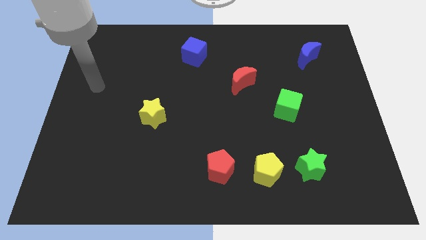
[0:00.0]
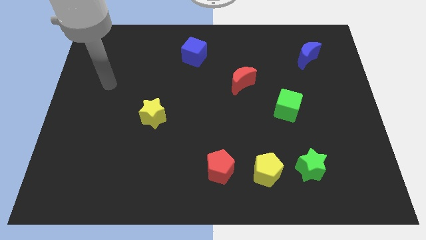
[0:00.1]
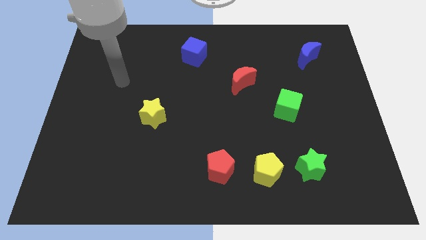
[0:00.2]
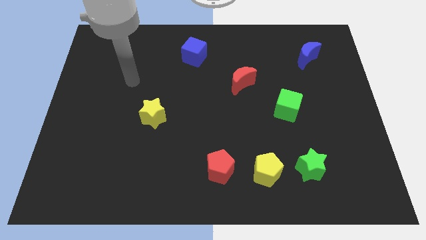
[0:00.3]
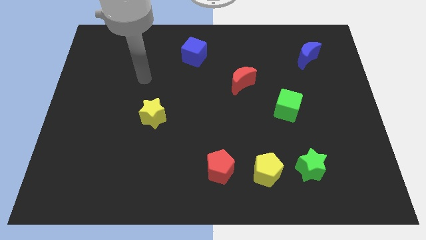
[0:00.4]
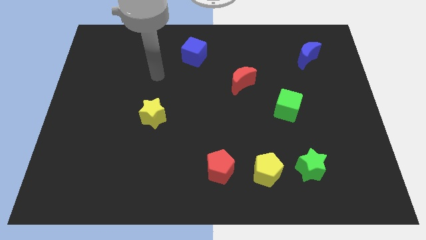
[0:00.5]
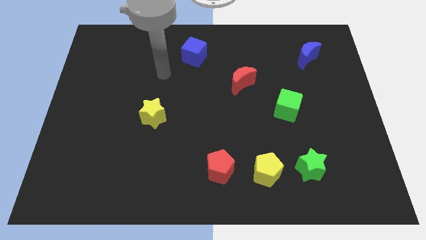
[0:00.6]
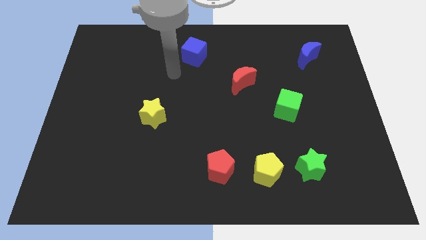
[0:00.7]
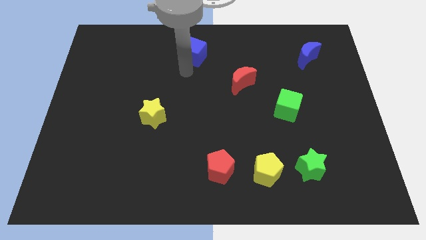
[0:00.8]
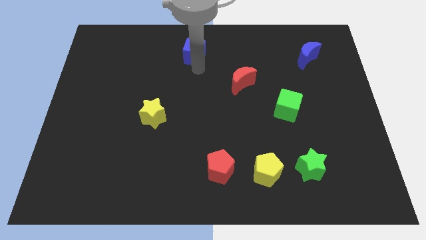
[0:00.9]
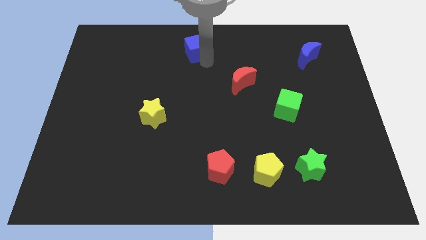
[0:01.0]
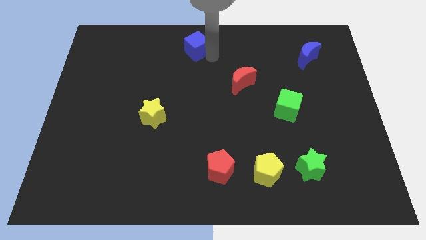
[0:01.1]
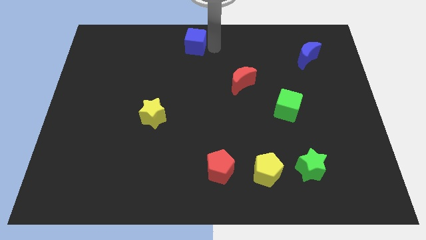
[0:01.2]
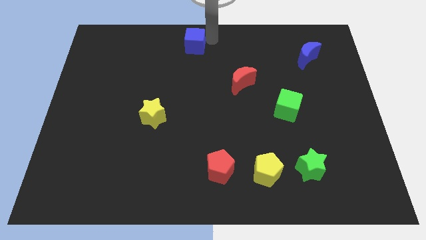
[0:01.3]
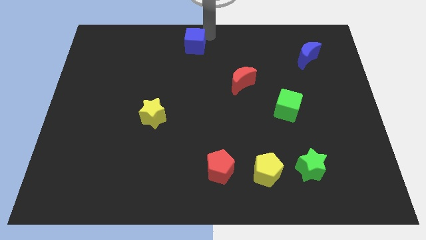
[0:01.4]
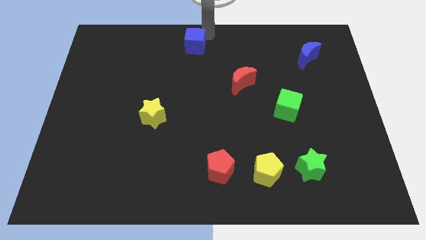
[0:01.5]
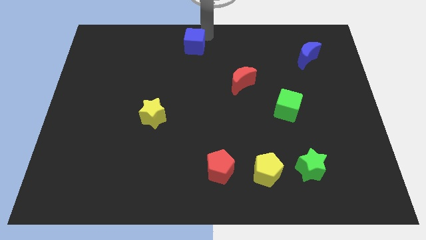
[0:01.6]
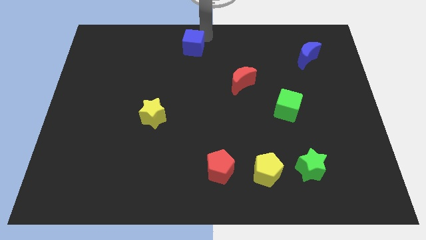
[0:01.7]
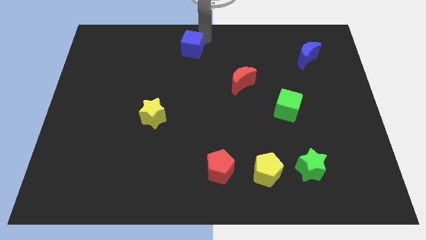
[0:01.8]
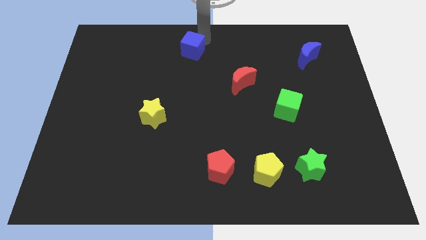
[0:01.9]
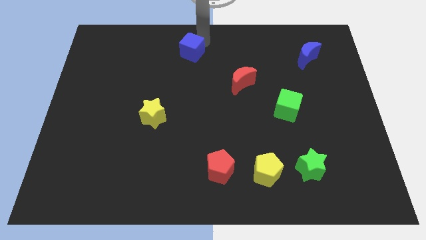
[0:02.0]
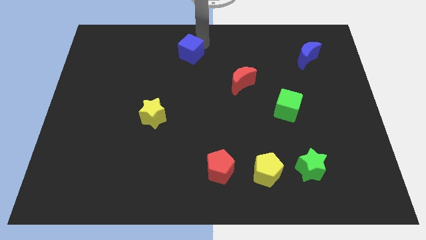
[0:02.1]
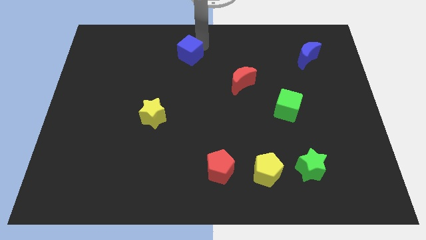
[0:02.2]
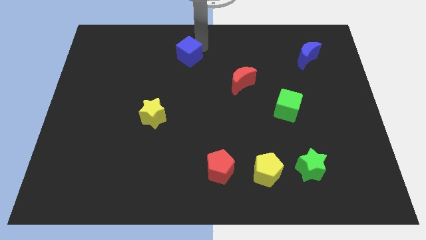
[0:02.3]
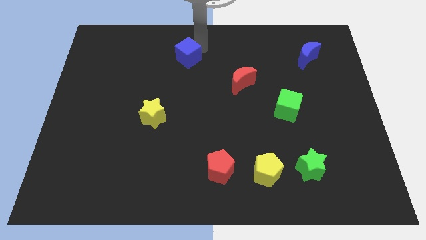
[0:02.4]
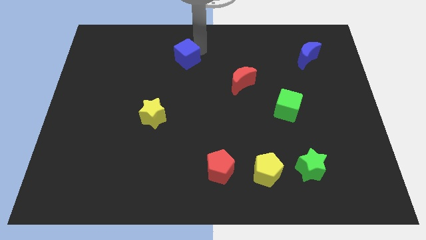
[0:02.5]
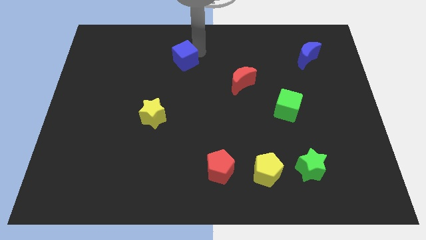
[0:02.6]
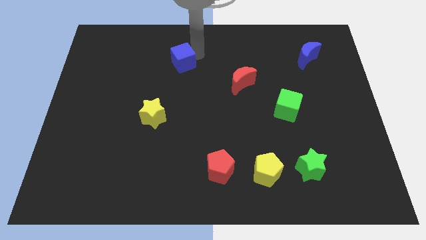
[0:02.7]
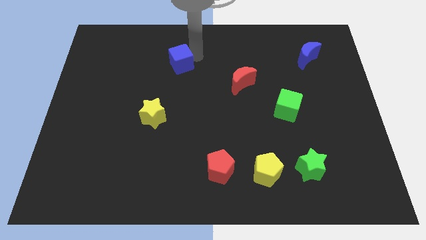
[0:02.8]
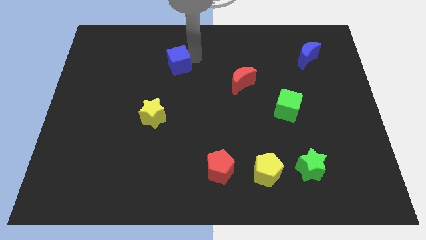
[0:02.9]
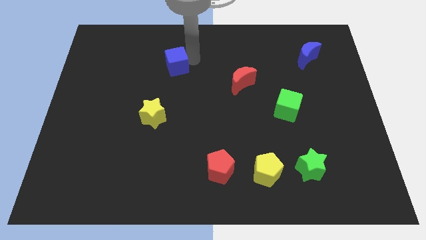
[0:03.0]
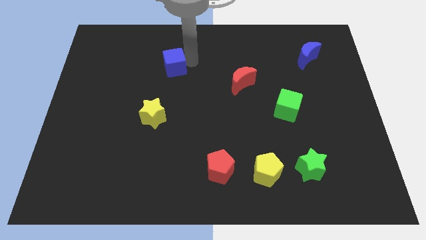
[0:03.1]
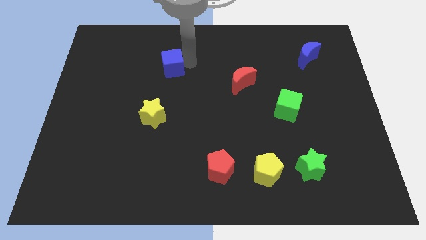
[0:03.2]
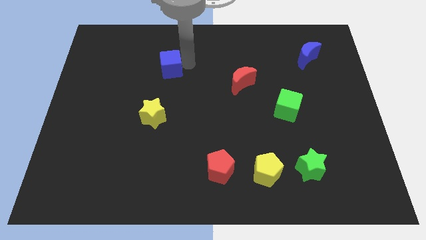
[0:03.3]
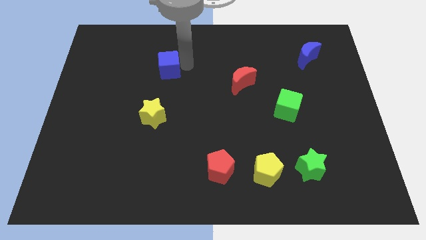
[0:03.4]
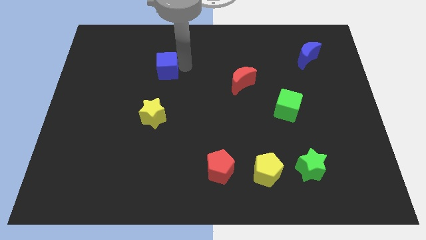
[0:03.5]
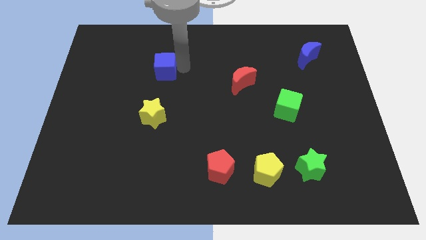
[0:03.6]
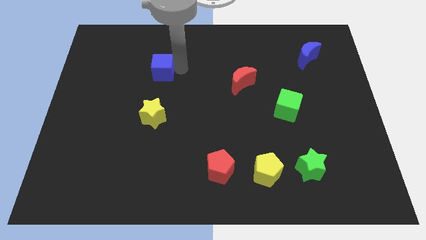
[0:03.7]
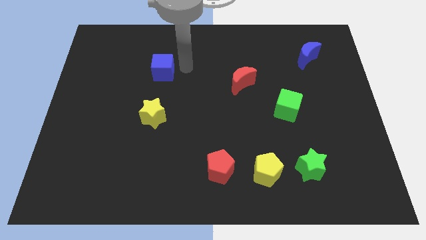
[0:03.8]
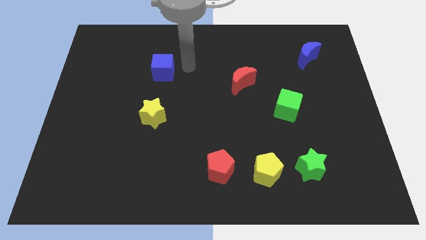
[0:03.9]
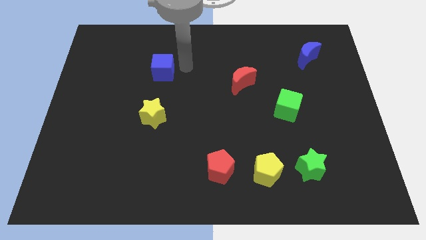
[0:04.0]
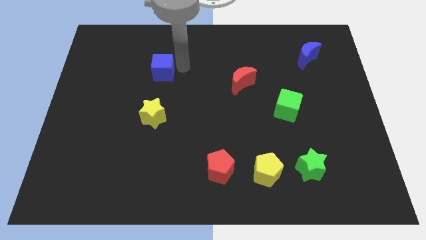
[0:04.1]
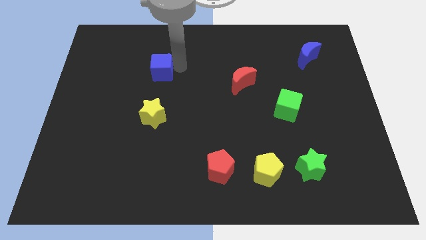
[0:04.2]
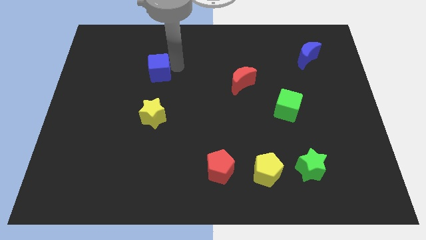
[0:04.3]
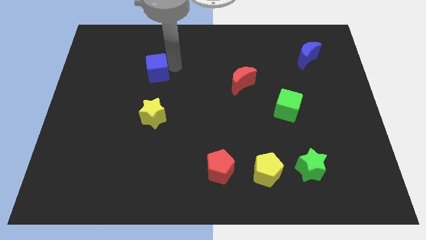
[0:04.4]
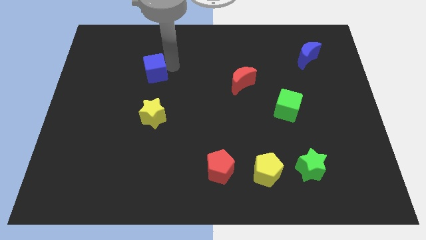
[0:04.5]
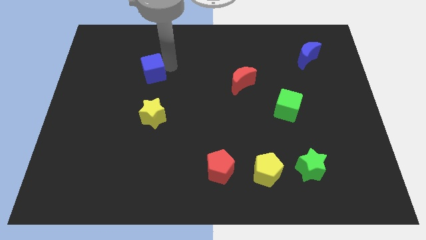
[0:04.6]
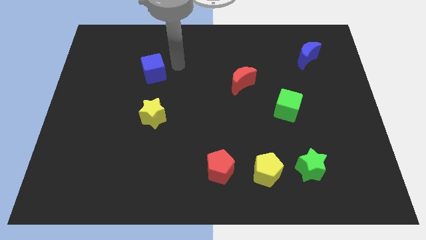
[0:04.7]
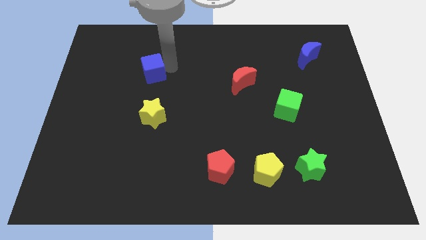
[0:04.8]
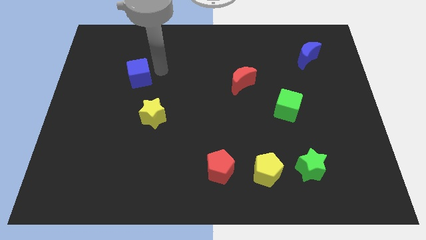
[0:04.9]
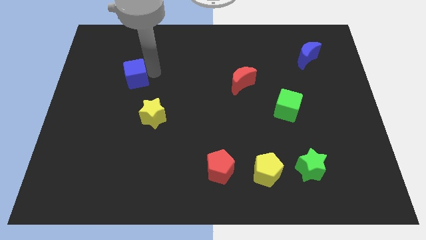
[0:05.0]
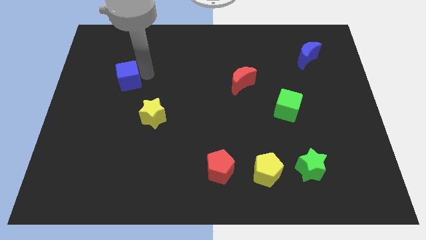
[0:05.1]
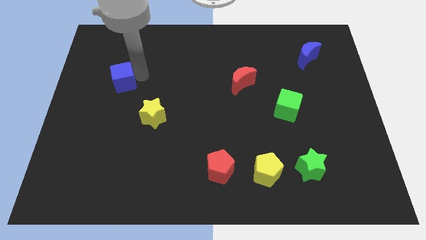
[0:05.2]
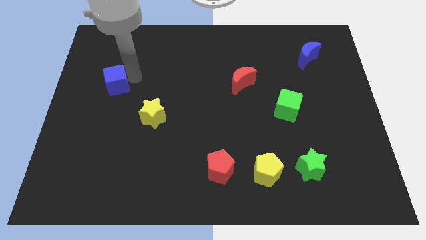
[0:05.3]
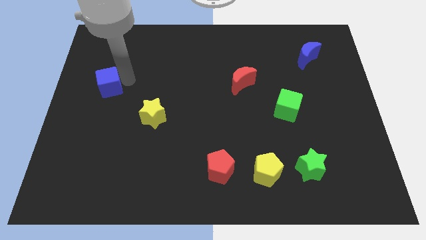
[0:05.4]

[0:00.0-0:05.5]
slide the blue cube to the left side
